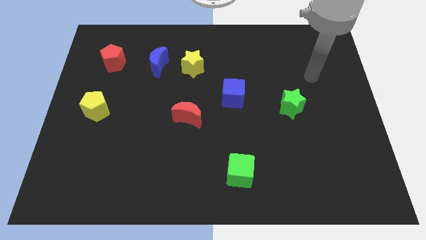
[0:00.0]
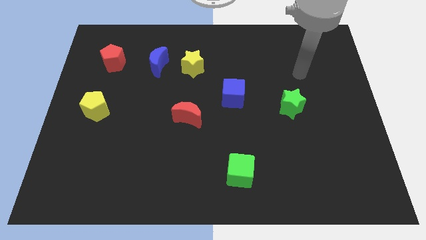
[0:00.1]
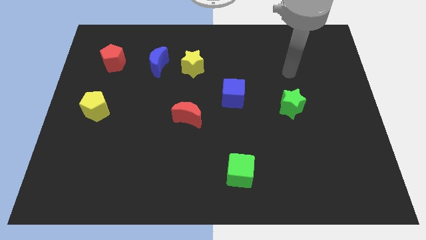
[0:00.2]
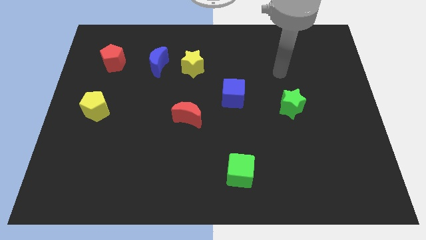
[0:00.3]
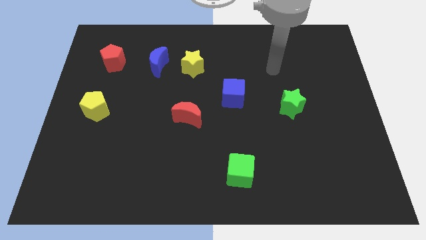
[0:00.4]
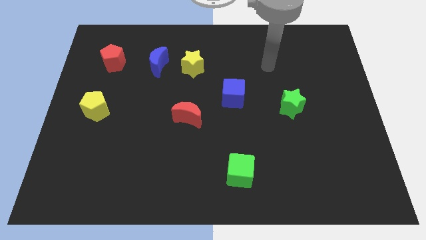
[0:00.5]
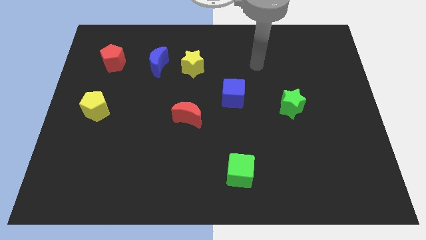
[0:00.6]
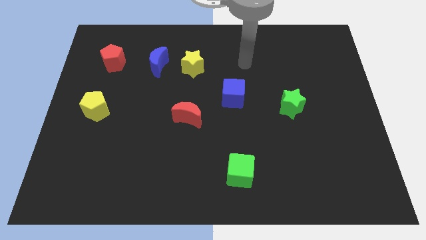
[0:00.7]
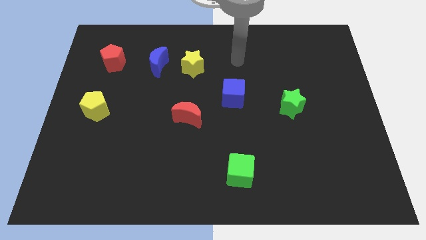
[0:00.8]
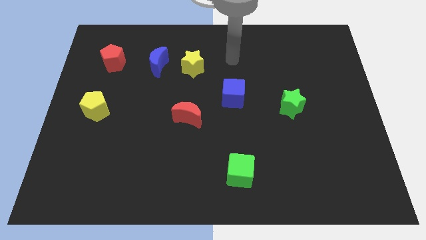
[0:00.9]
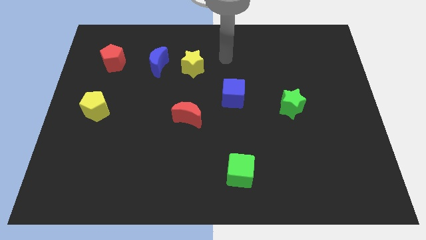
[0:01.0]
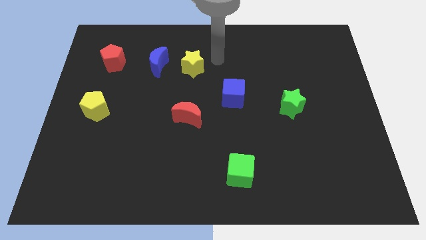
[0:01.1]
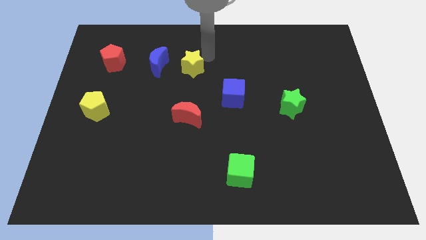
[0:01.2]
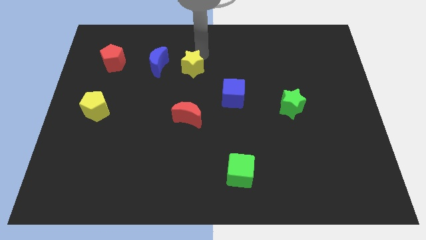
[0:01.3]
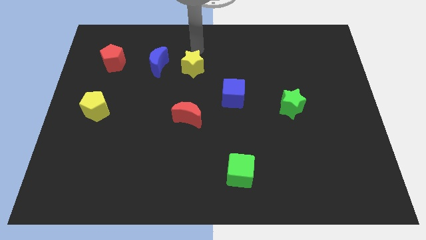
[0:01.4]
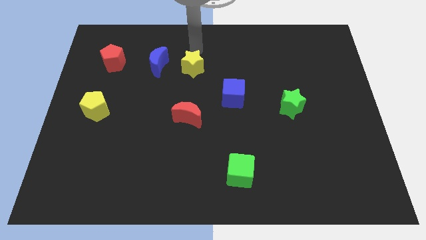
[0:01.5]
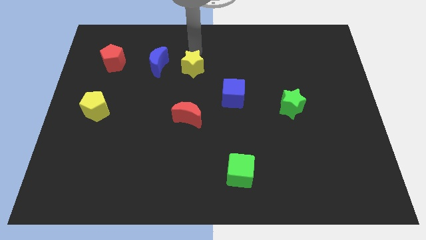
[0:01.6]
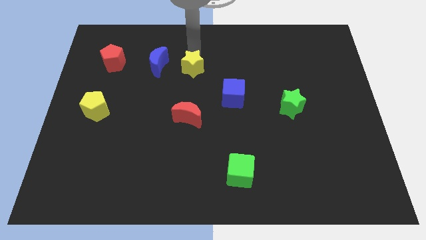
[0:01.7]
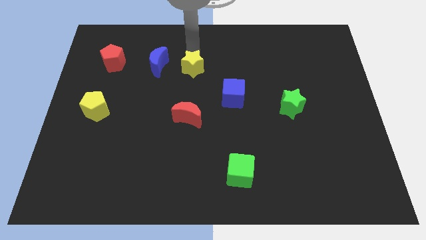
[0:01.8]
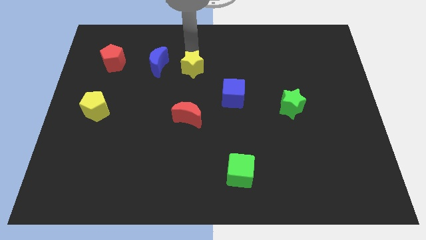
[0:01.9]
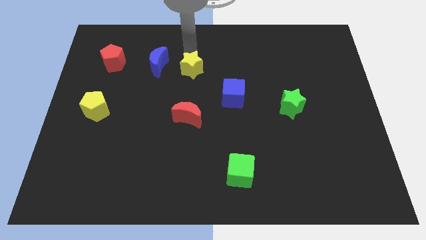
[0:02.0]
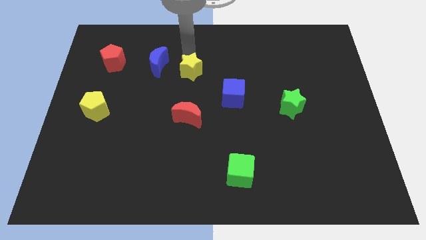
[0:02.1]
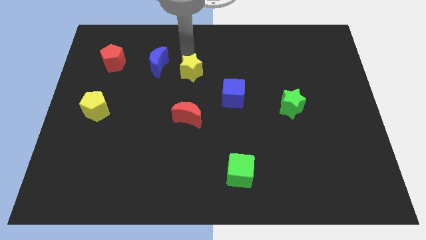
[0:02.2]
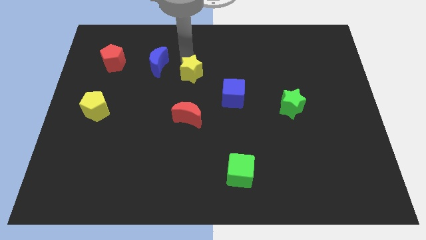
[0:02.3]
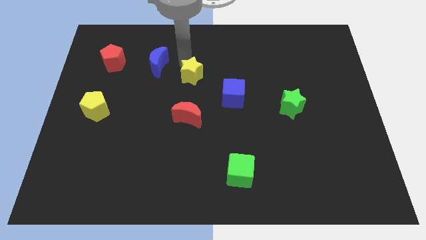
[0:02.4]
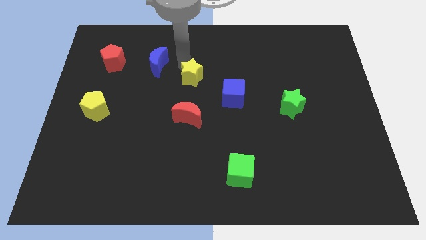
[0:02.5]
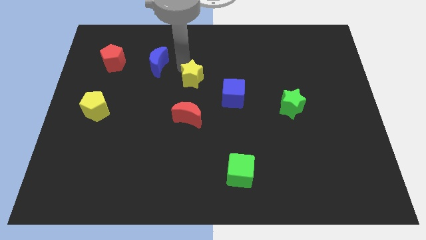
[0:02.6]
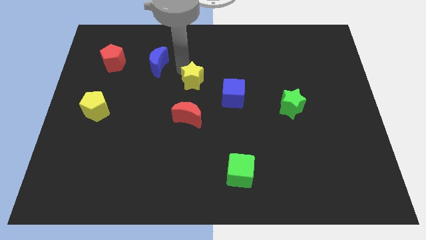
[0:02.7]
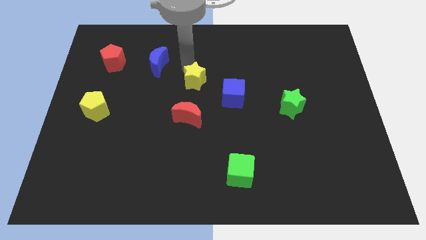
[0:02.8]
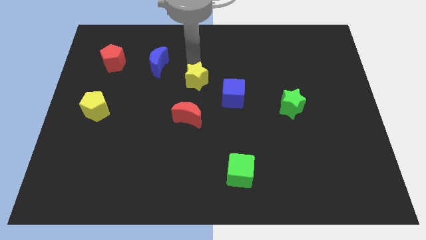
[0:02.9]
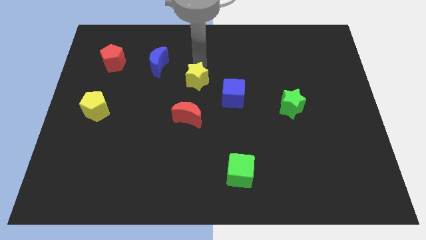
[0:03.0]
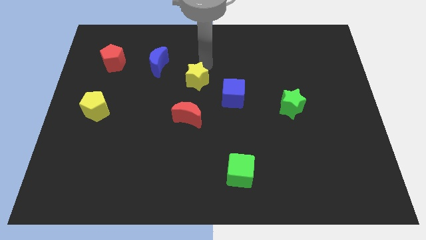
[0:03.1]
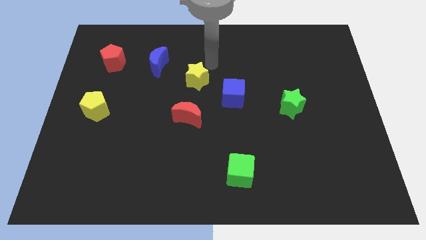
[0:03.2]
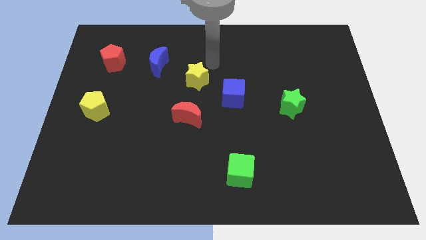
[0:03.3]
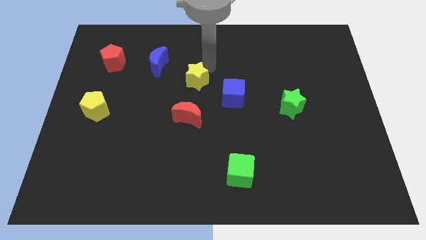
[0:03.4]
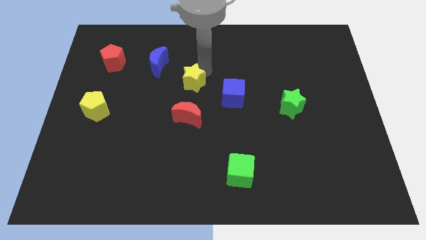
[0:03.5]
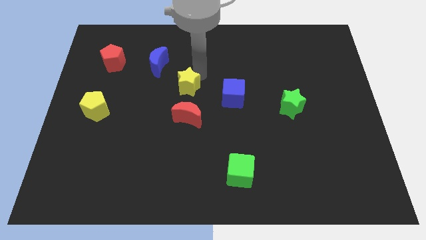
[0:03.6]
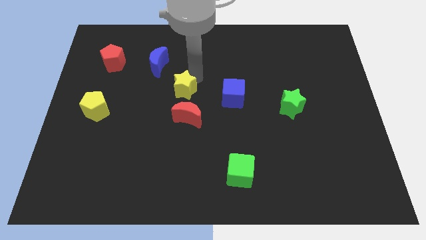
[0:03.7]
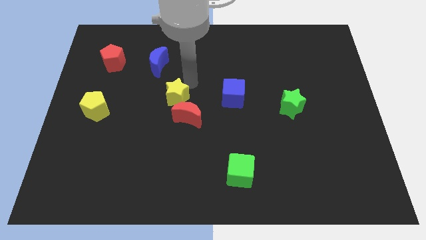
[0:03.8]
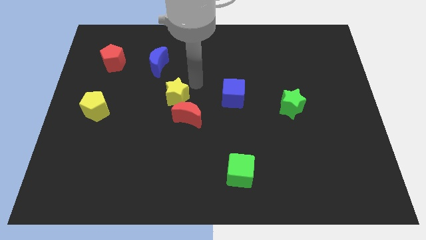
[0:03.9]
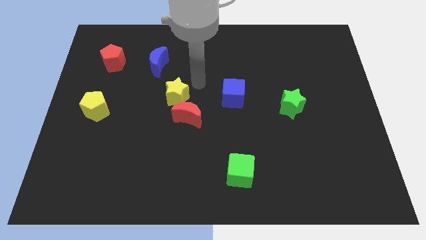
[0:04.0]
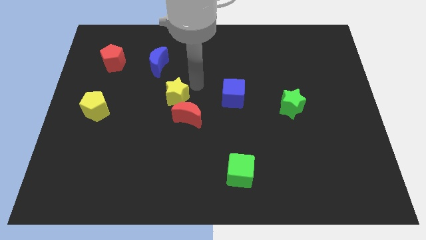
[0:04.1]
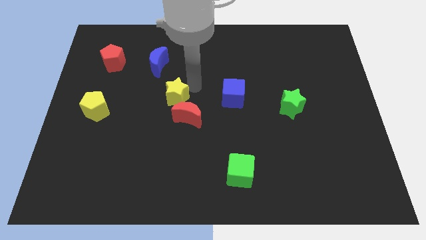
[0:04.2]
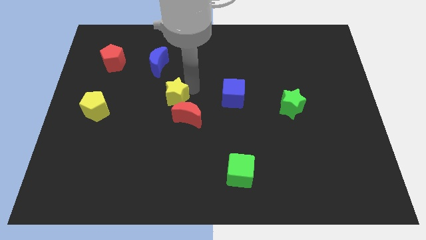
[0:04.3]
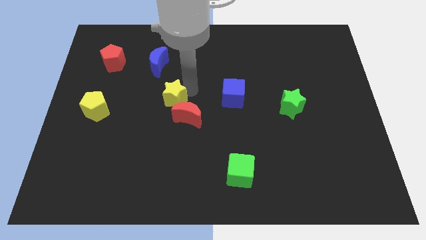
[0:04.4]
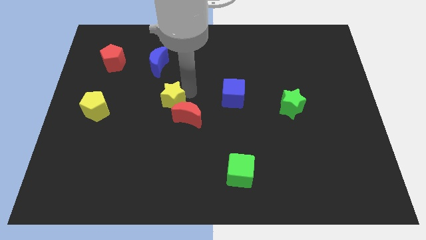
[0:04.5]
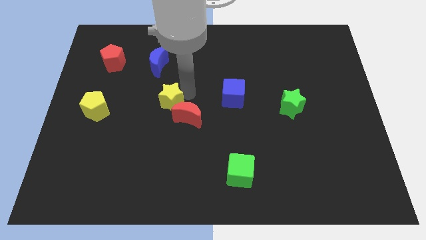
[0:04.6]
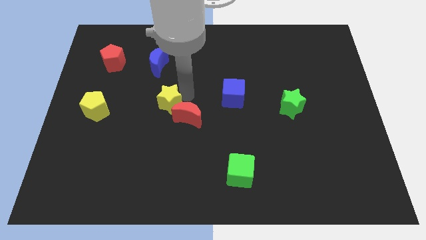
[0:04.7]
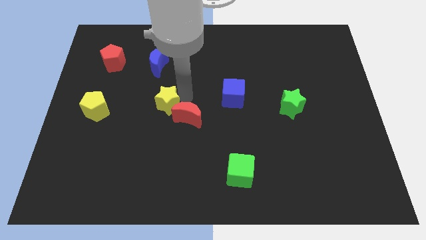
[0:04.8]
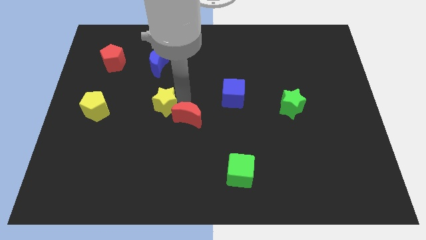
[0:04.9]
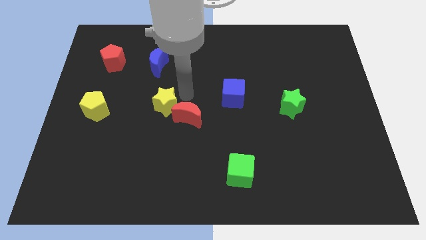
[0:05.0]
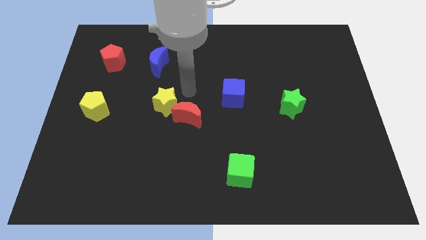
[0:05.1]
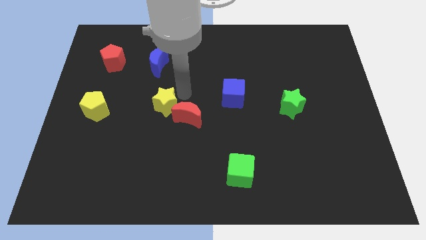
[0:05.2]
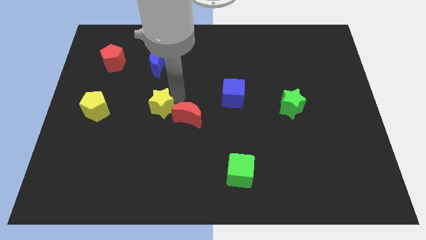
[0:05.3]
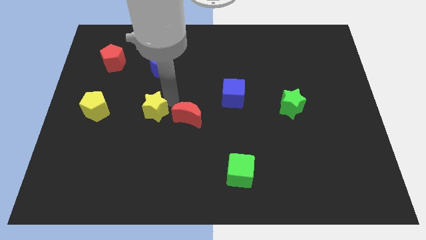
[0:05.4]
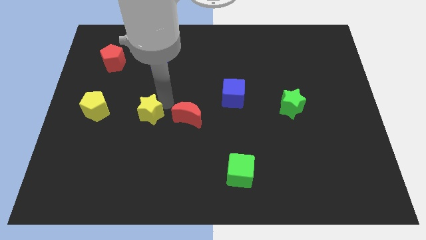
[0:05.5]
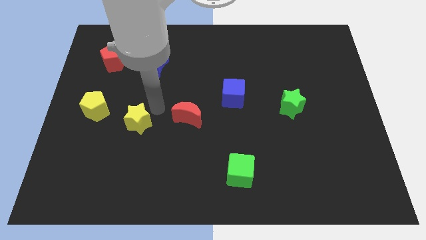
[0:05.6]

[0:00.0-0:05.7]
move the yellow star down and left

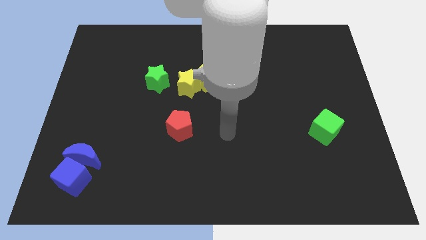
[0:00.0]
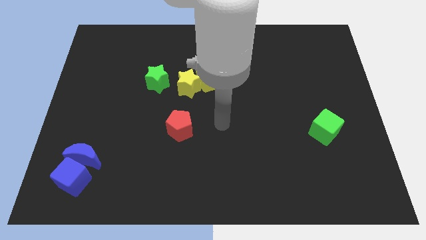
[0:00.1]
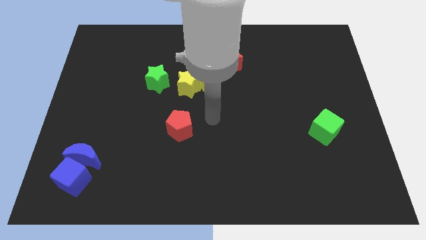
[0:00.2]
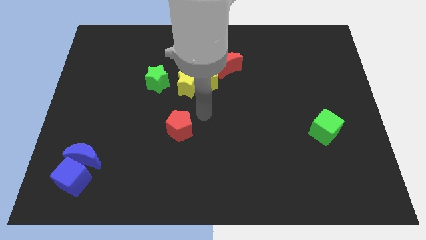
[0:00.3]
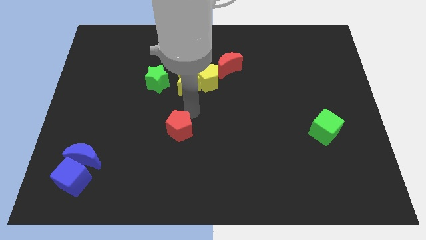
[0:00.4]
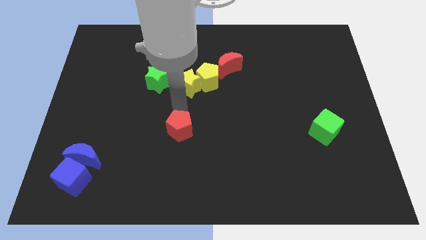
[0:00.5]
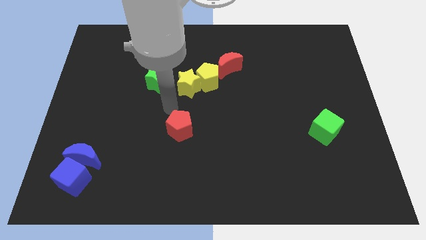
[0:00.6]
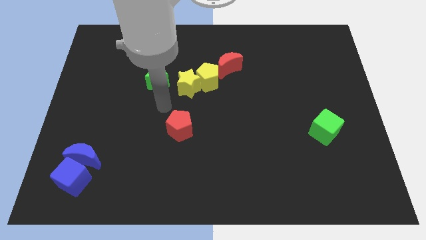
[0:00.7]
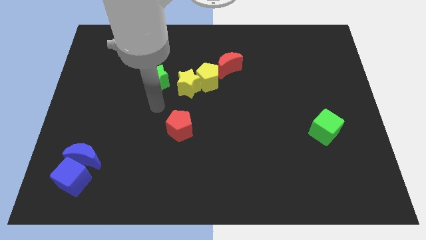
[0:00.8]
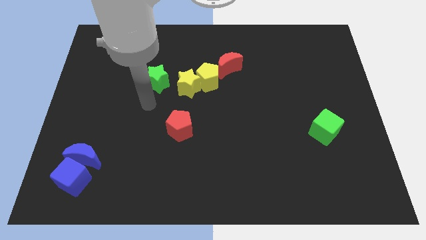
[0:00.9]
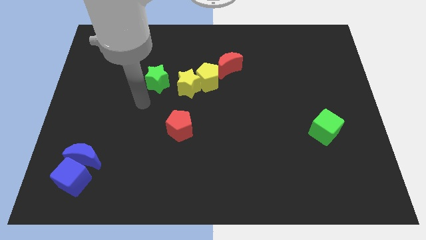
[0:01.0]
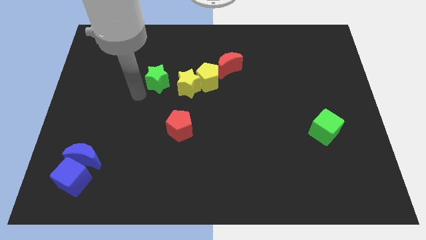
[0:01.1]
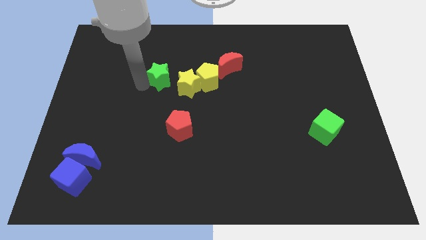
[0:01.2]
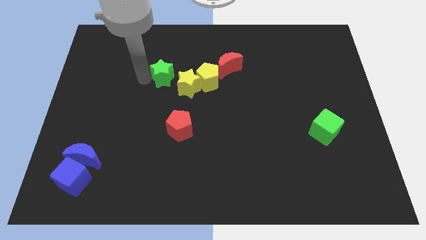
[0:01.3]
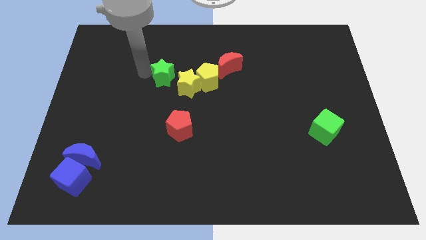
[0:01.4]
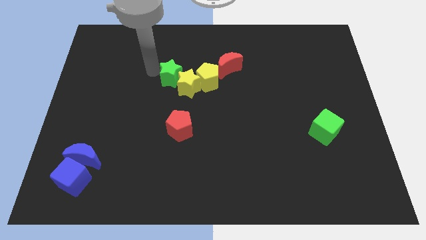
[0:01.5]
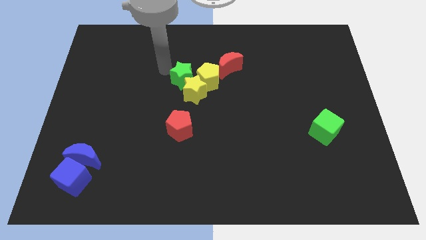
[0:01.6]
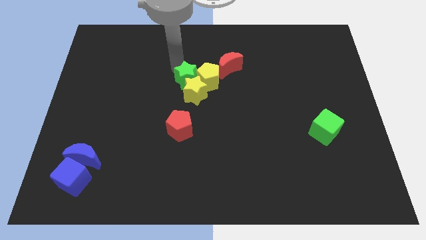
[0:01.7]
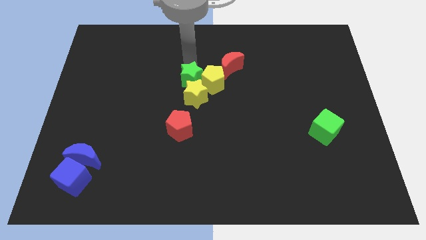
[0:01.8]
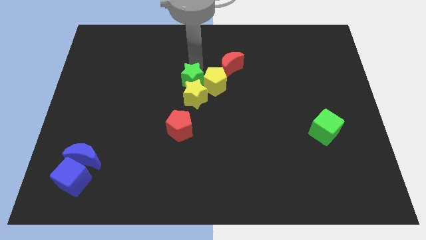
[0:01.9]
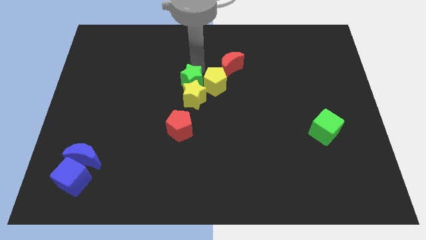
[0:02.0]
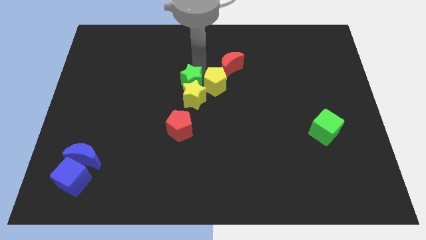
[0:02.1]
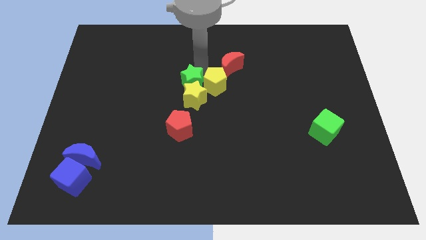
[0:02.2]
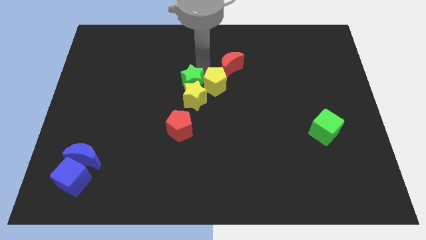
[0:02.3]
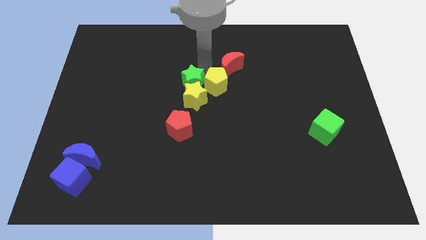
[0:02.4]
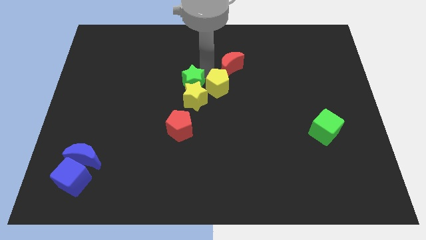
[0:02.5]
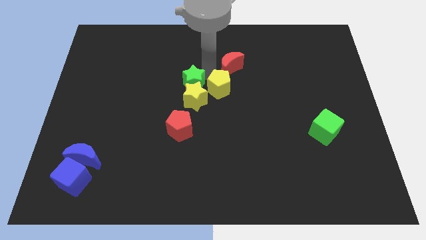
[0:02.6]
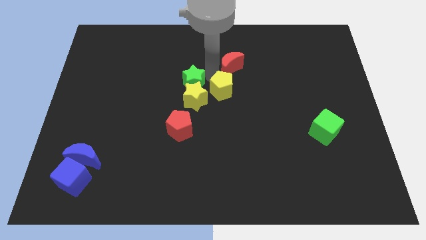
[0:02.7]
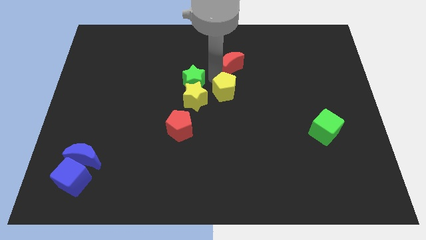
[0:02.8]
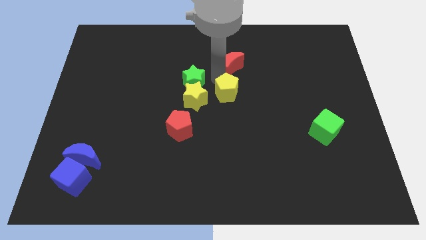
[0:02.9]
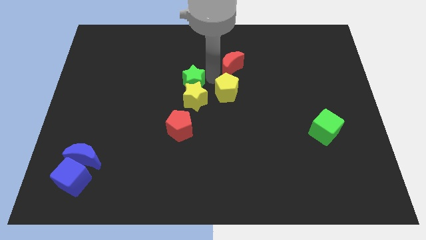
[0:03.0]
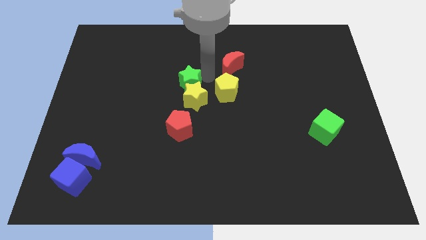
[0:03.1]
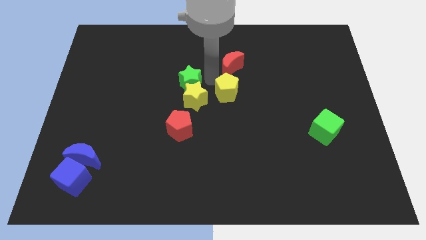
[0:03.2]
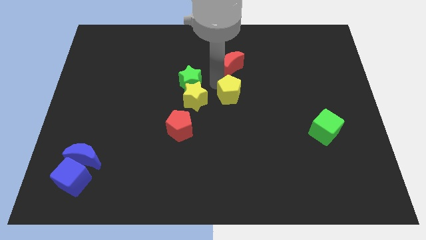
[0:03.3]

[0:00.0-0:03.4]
move the yellow pentagon downwards and then to the right a little
